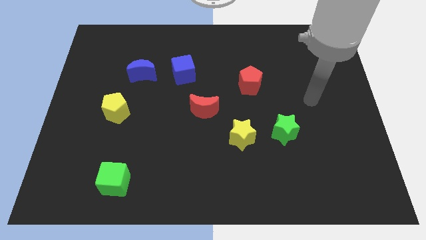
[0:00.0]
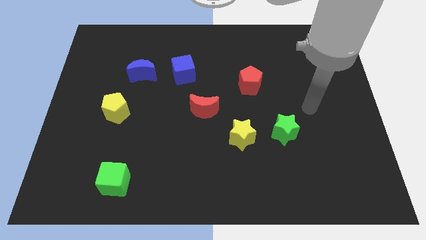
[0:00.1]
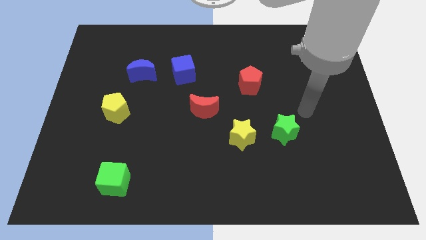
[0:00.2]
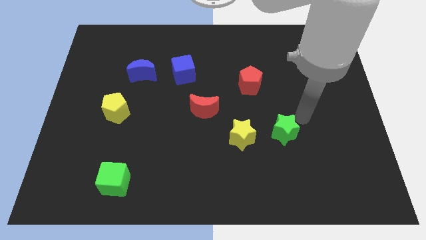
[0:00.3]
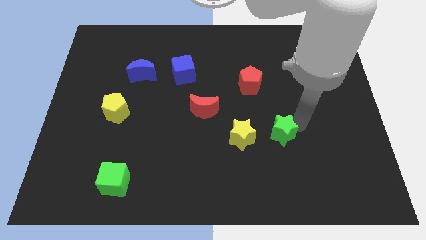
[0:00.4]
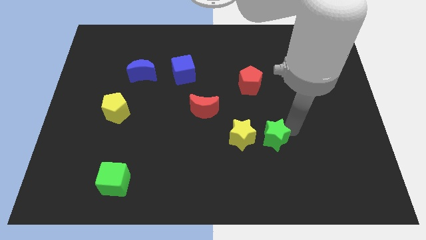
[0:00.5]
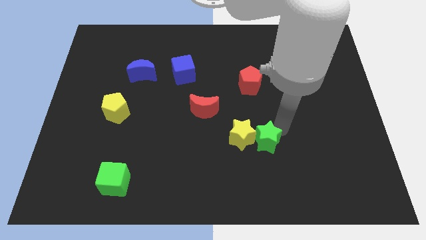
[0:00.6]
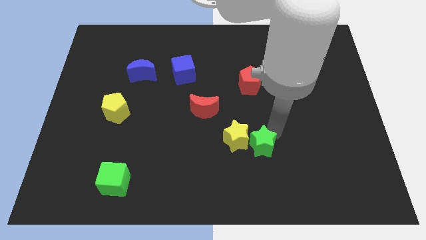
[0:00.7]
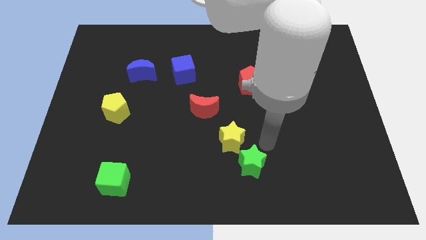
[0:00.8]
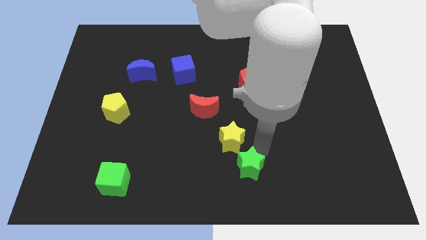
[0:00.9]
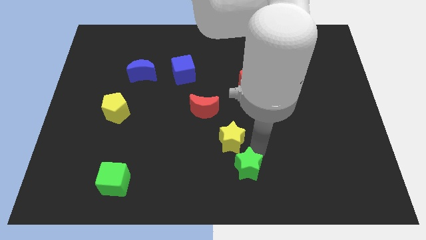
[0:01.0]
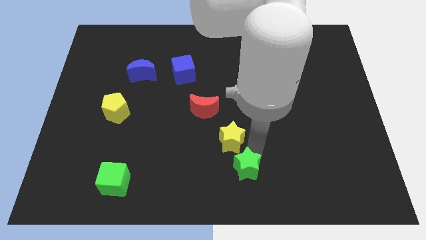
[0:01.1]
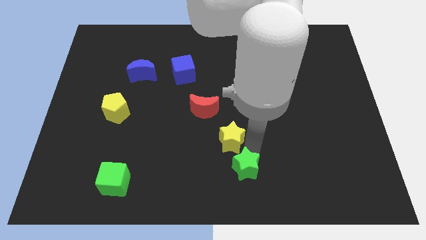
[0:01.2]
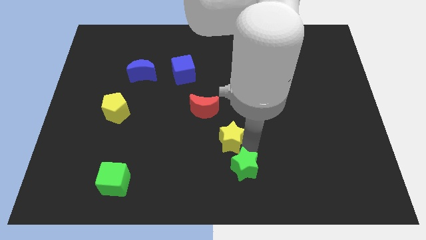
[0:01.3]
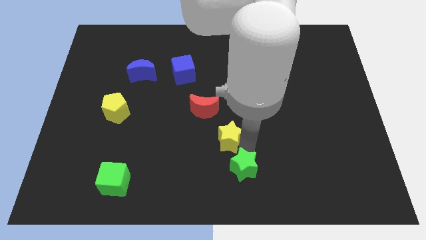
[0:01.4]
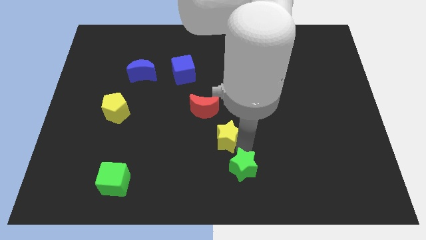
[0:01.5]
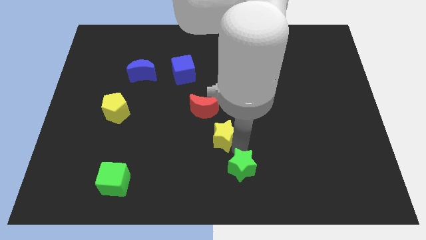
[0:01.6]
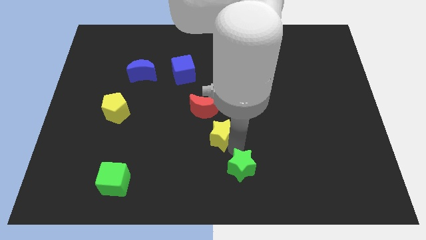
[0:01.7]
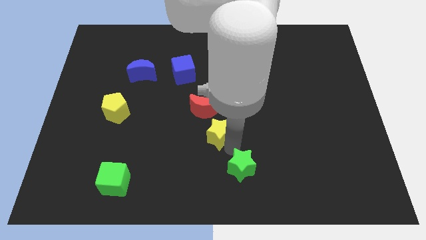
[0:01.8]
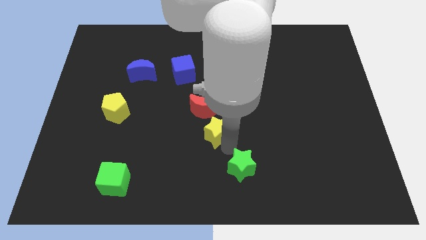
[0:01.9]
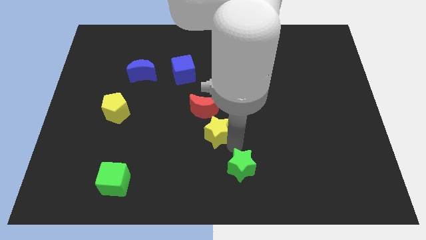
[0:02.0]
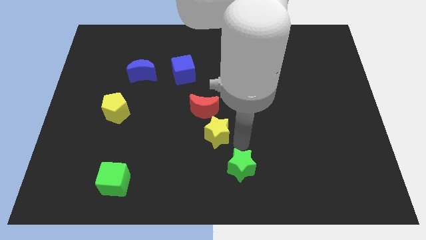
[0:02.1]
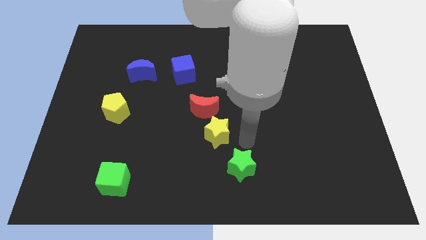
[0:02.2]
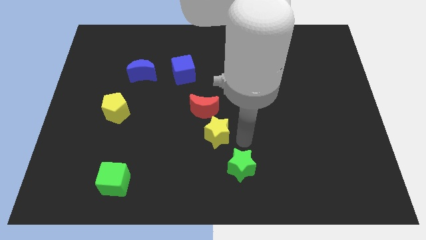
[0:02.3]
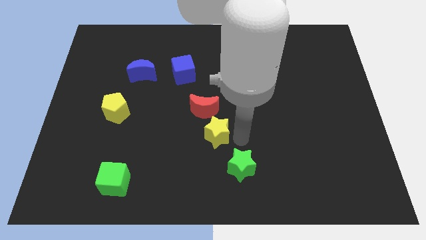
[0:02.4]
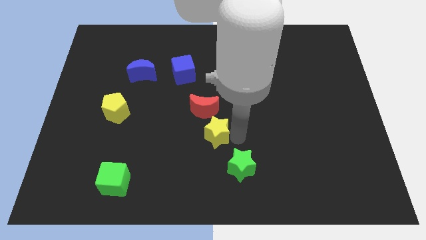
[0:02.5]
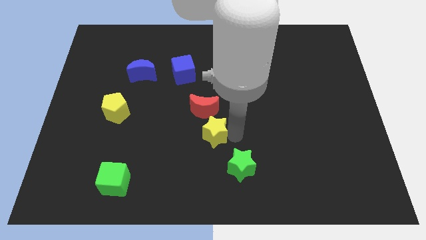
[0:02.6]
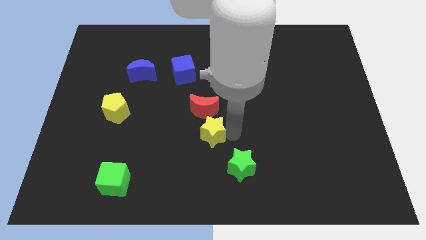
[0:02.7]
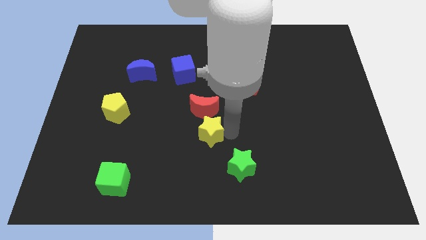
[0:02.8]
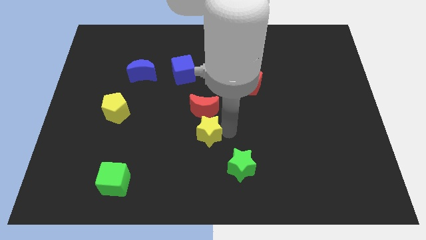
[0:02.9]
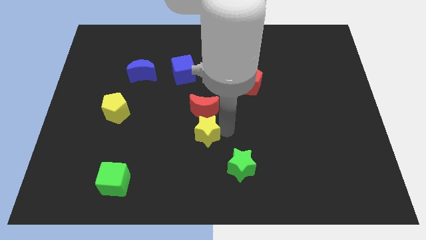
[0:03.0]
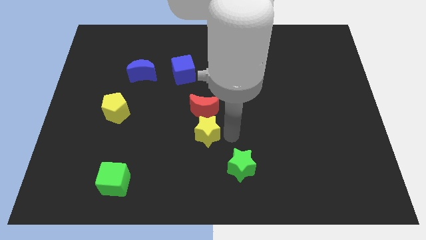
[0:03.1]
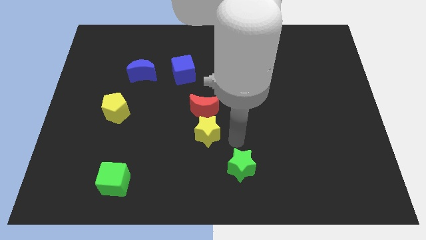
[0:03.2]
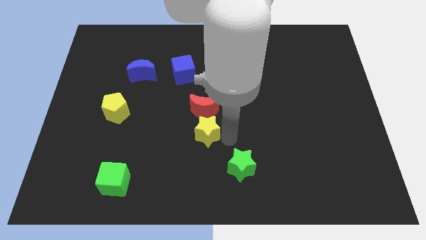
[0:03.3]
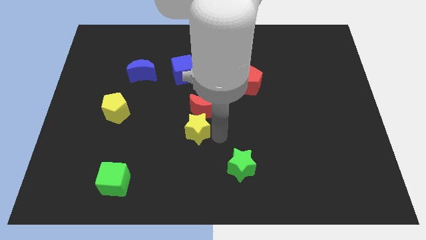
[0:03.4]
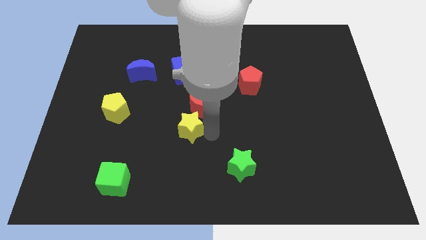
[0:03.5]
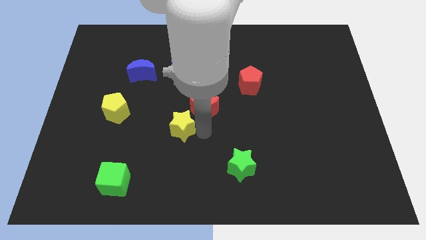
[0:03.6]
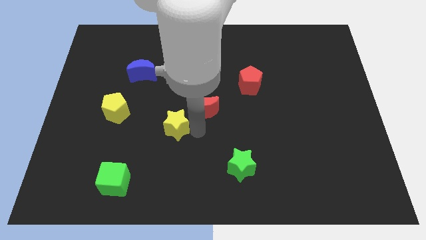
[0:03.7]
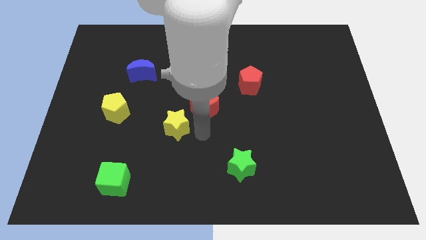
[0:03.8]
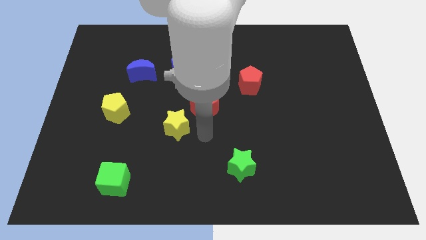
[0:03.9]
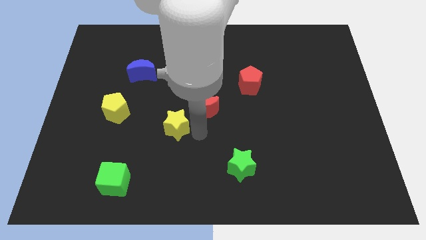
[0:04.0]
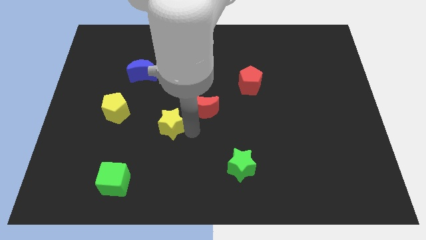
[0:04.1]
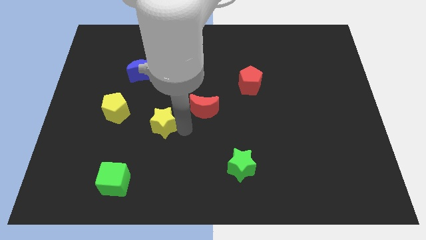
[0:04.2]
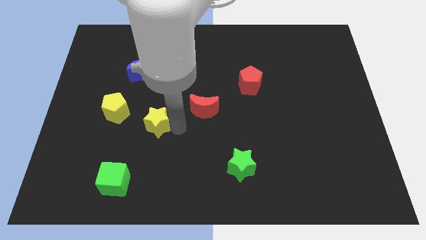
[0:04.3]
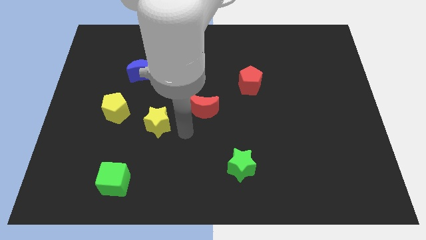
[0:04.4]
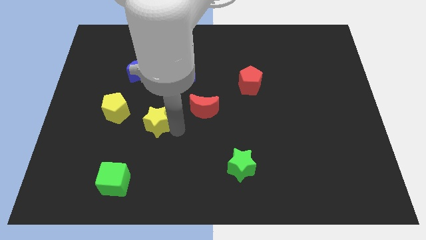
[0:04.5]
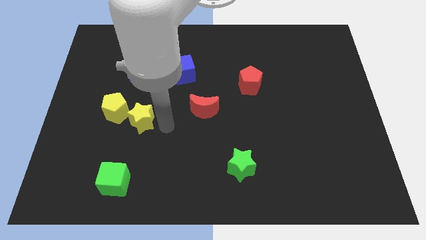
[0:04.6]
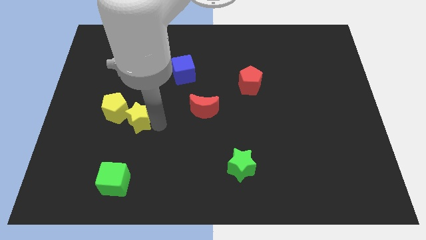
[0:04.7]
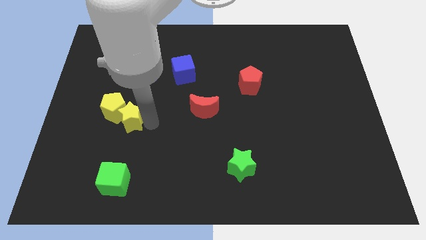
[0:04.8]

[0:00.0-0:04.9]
slide the yellow star to the yellow pentagon

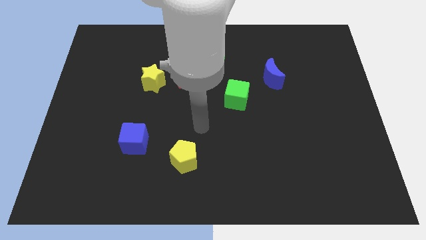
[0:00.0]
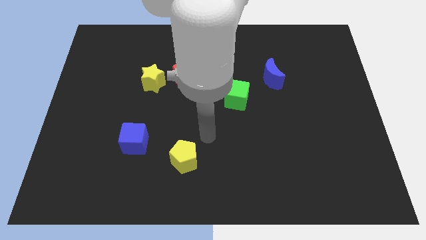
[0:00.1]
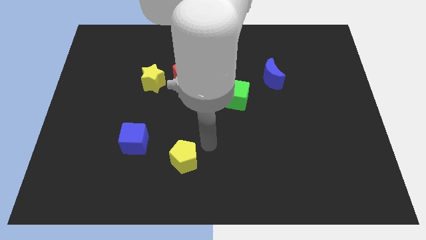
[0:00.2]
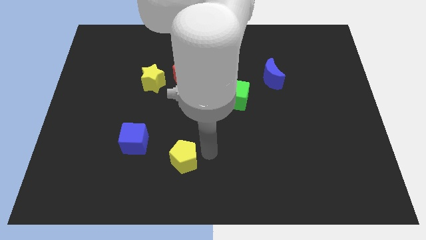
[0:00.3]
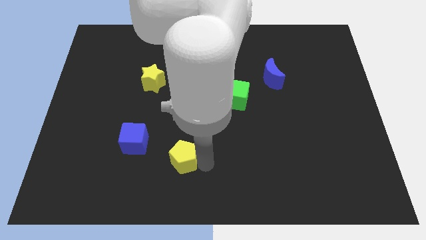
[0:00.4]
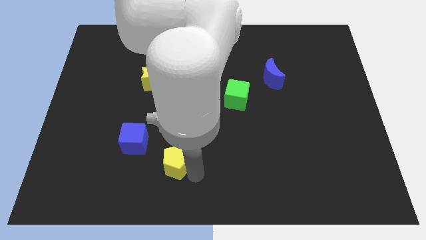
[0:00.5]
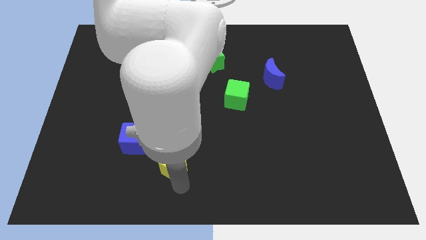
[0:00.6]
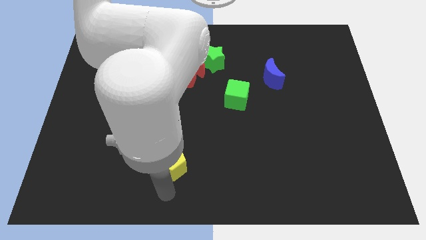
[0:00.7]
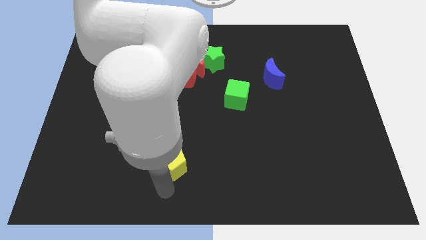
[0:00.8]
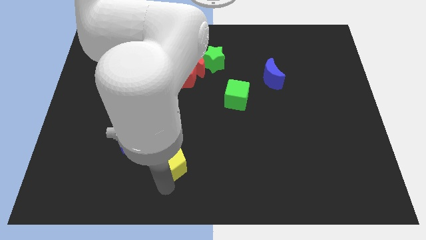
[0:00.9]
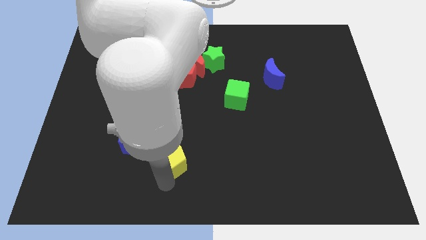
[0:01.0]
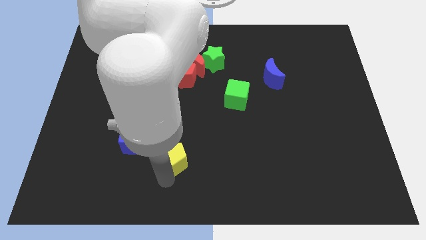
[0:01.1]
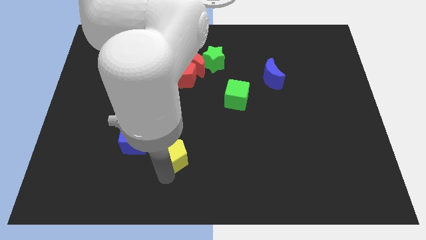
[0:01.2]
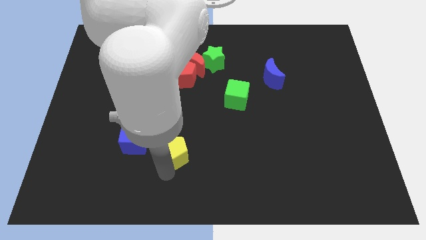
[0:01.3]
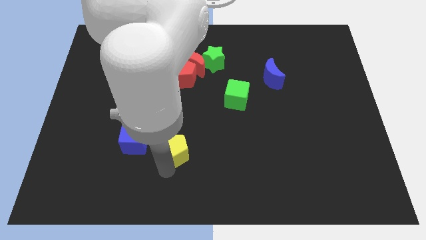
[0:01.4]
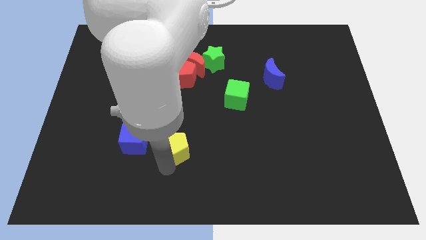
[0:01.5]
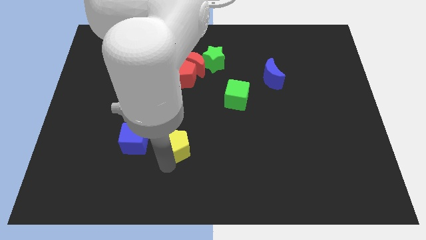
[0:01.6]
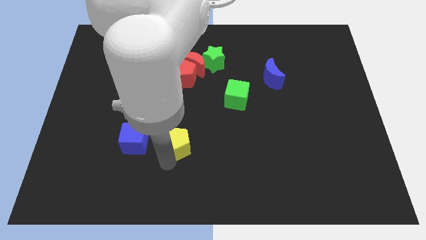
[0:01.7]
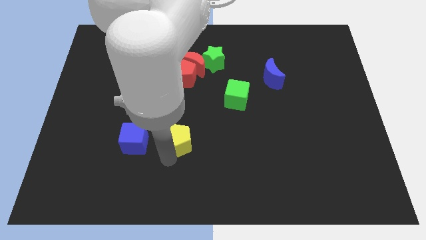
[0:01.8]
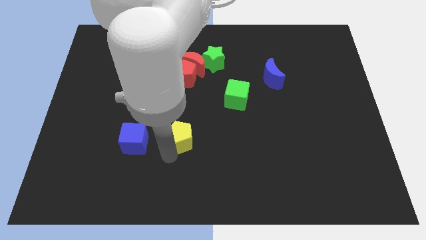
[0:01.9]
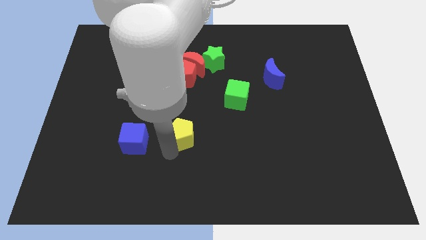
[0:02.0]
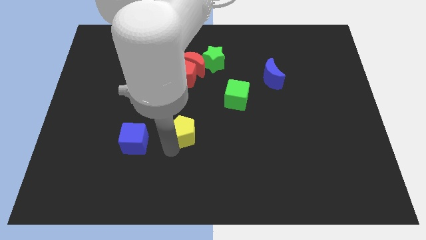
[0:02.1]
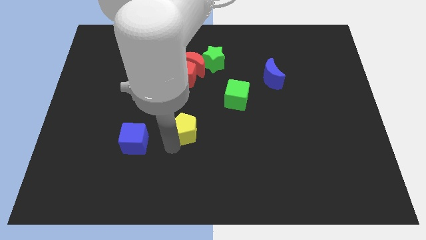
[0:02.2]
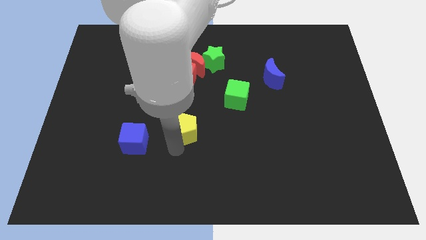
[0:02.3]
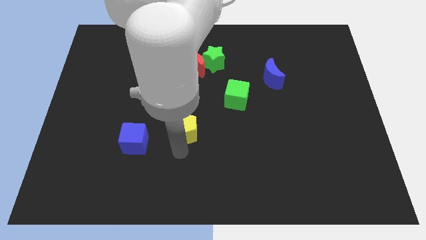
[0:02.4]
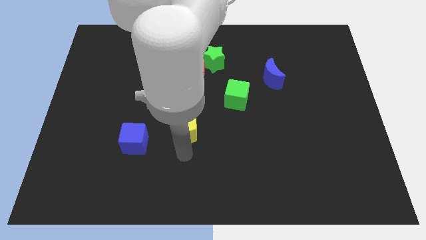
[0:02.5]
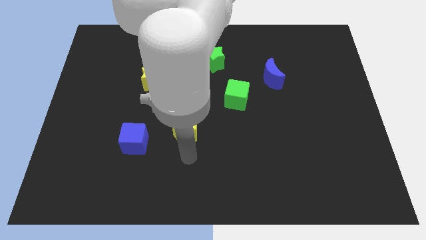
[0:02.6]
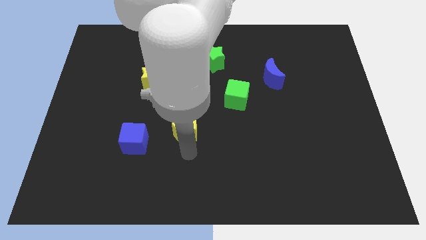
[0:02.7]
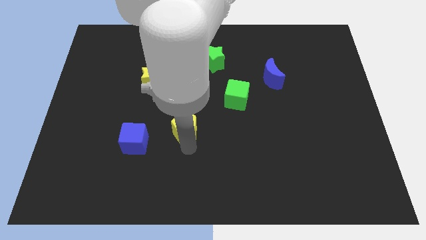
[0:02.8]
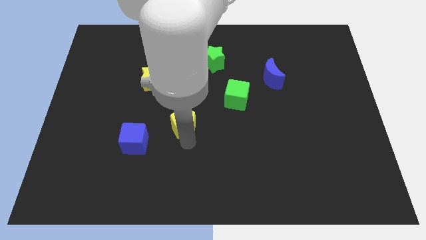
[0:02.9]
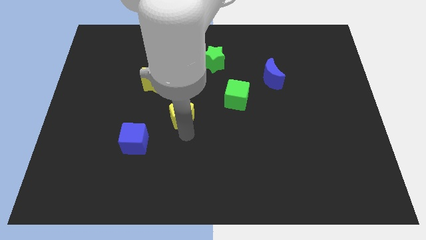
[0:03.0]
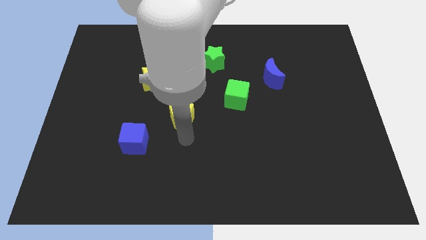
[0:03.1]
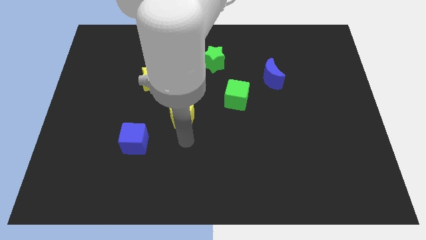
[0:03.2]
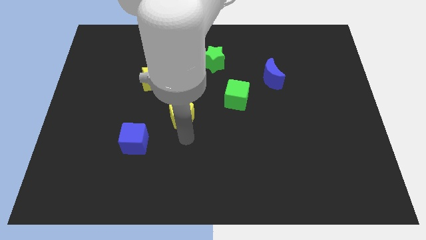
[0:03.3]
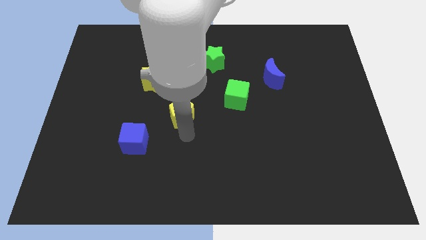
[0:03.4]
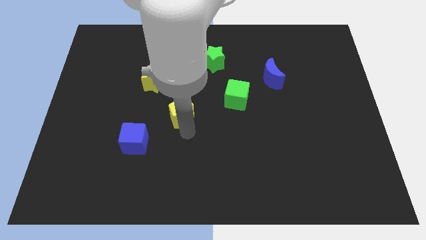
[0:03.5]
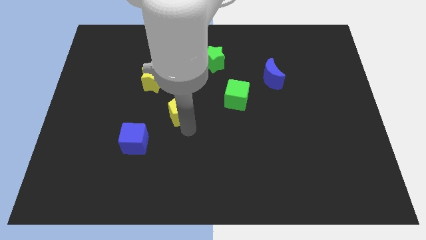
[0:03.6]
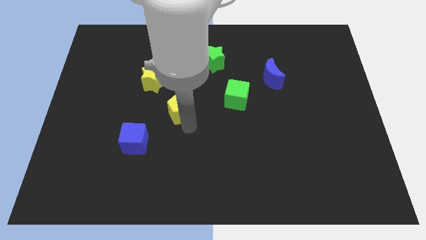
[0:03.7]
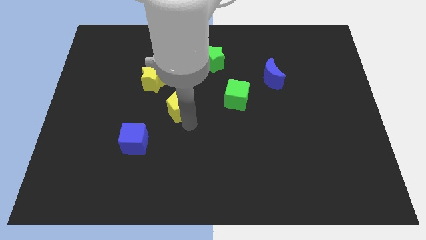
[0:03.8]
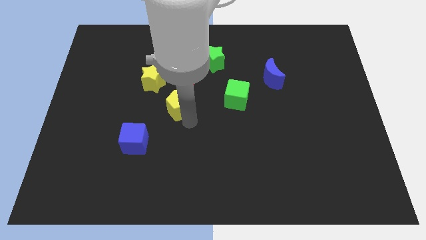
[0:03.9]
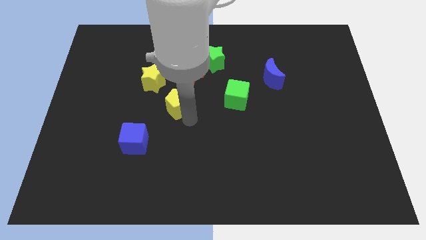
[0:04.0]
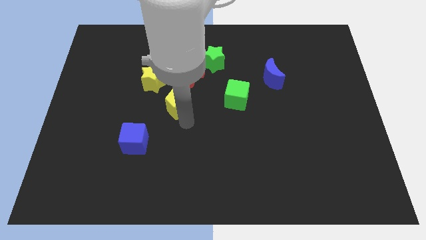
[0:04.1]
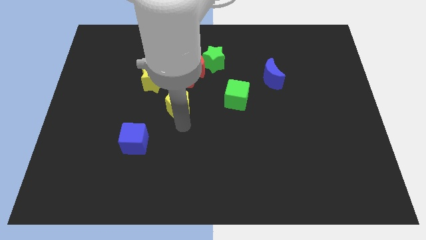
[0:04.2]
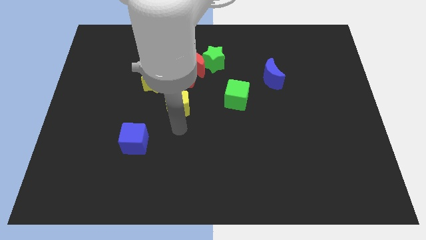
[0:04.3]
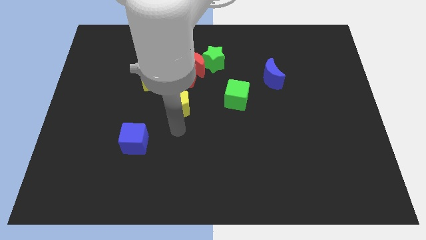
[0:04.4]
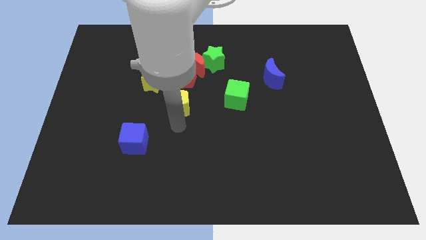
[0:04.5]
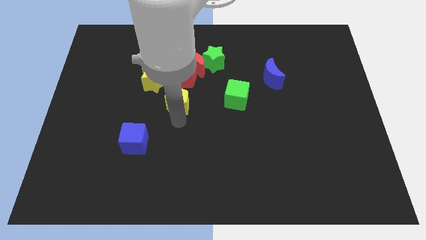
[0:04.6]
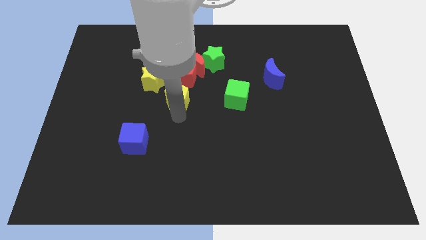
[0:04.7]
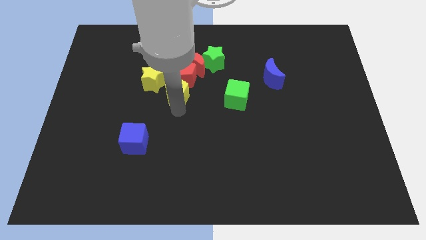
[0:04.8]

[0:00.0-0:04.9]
move the yellow pentagon to the red pentagon
